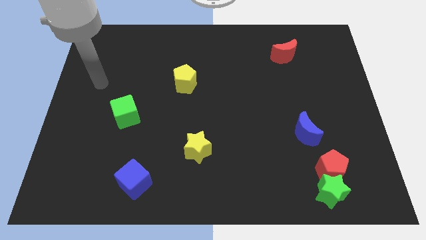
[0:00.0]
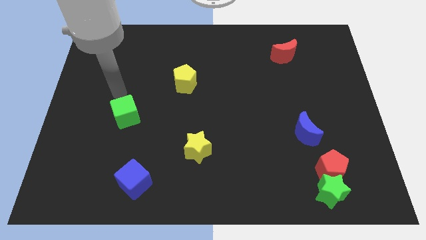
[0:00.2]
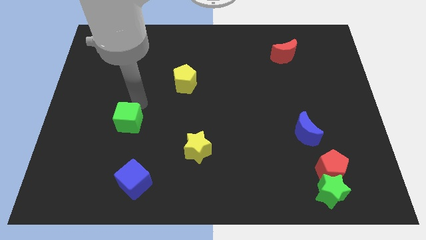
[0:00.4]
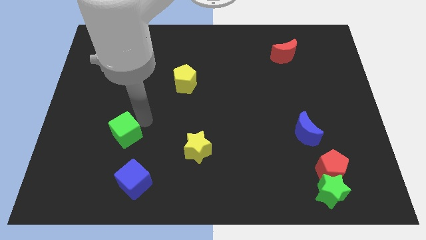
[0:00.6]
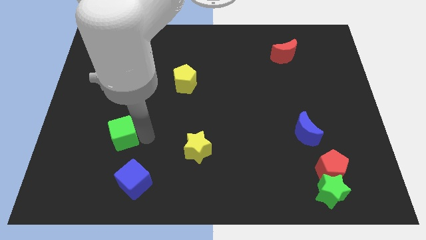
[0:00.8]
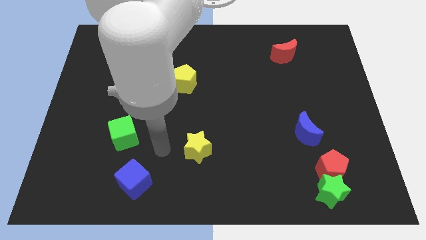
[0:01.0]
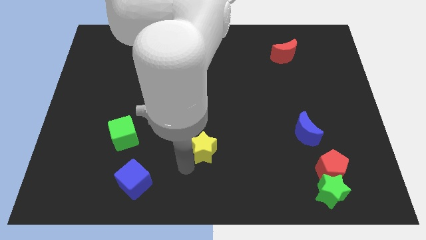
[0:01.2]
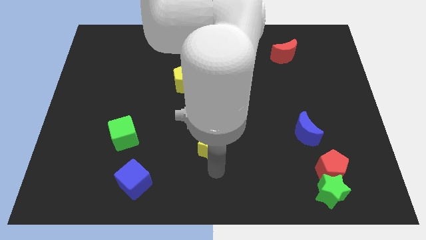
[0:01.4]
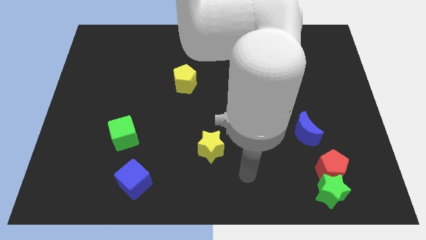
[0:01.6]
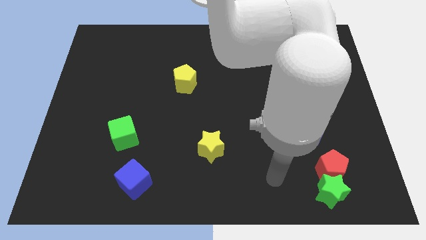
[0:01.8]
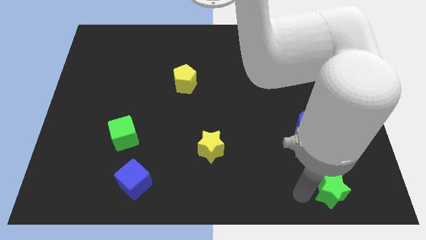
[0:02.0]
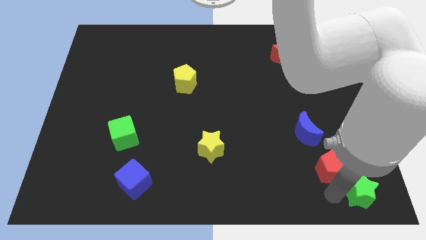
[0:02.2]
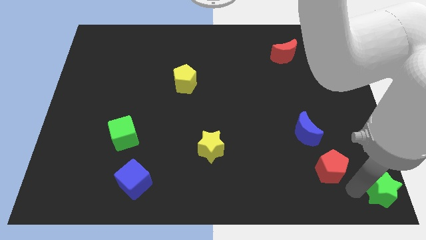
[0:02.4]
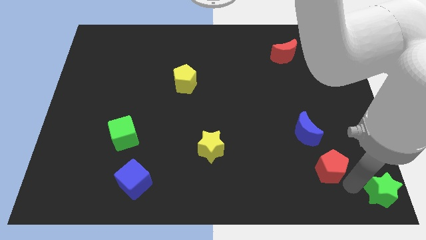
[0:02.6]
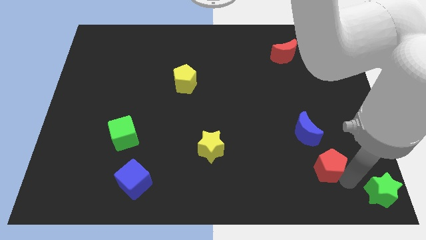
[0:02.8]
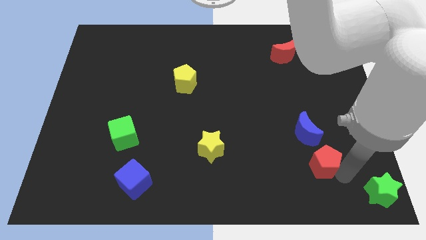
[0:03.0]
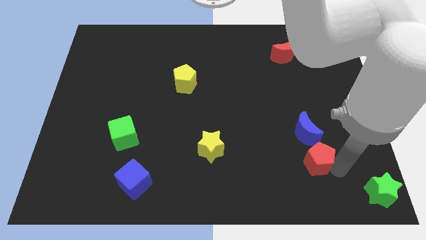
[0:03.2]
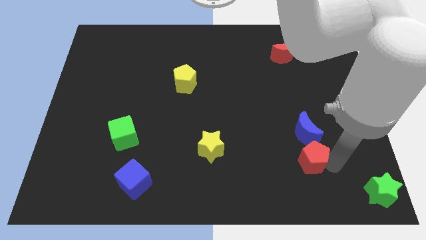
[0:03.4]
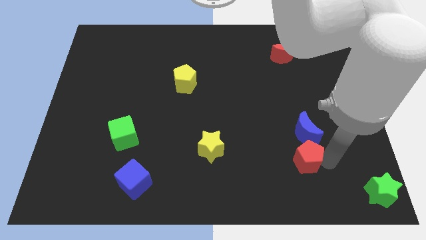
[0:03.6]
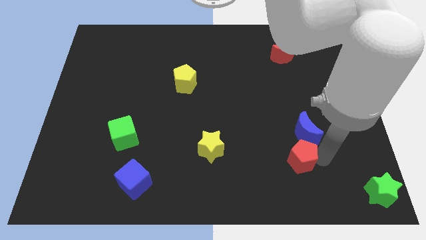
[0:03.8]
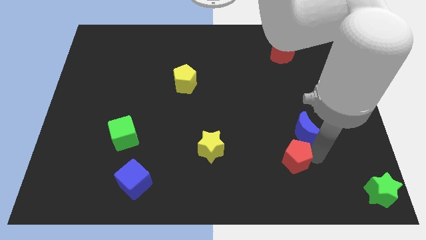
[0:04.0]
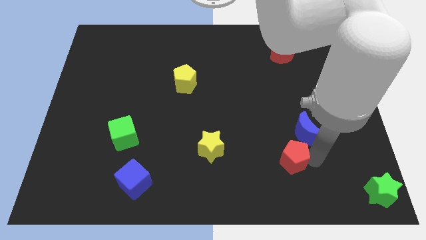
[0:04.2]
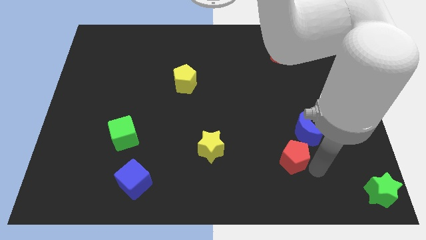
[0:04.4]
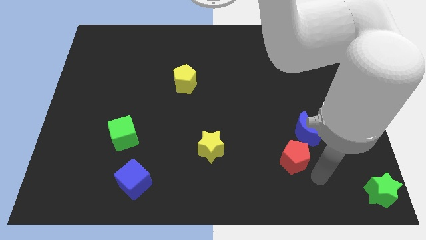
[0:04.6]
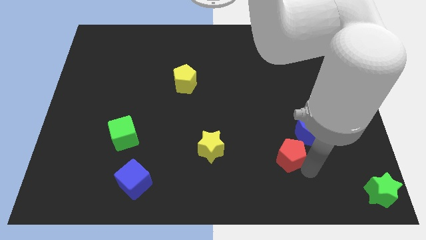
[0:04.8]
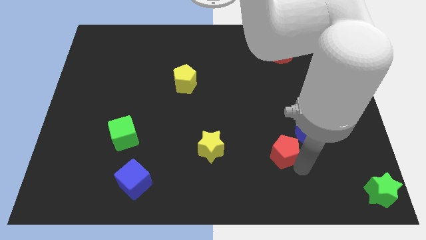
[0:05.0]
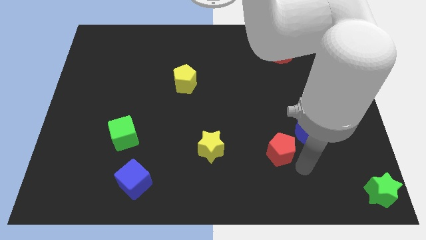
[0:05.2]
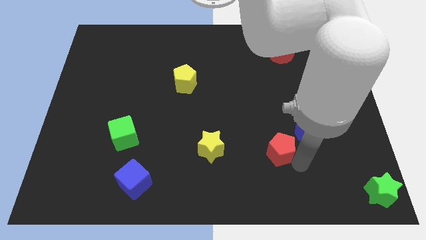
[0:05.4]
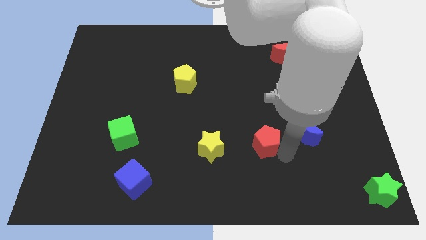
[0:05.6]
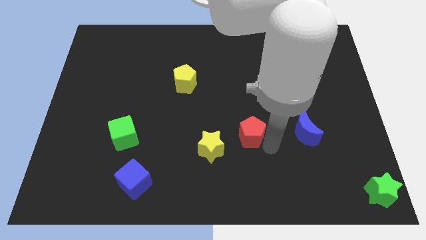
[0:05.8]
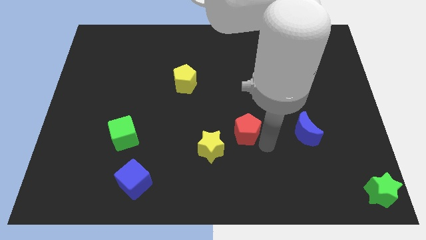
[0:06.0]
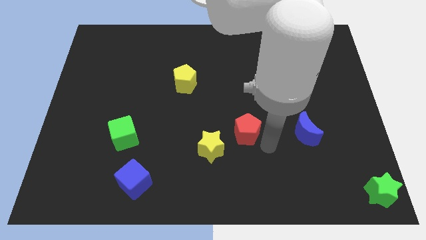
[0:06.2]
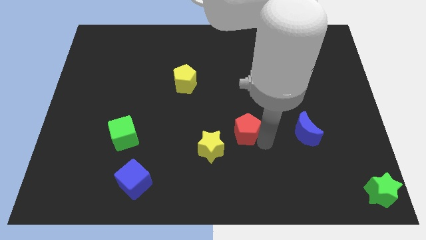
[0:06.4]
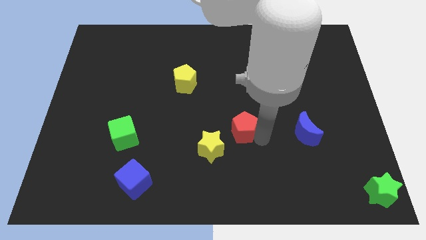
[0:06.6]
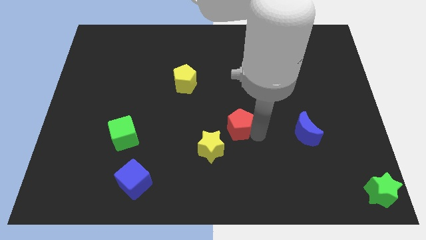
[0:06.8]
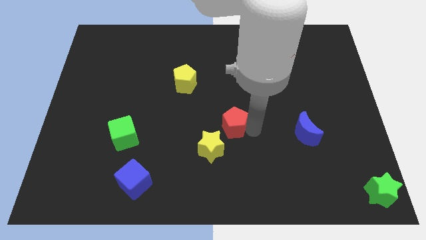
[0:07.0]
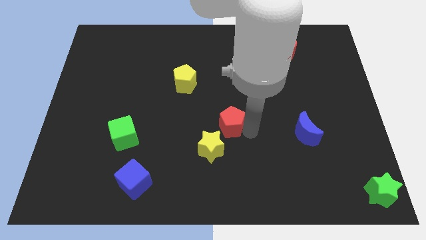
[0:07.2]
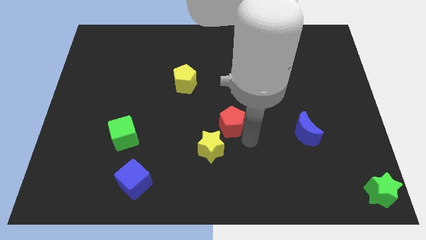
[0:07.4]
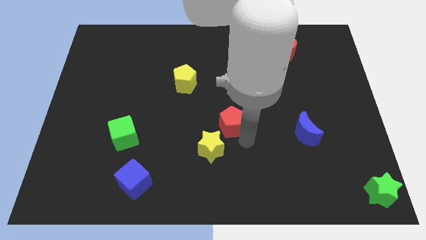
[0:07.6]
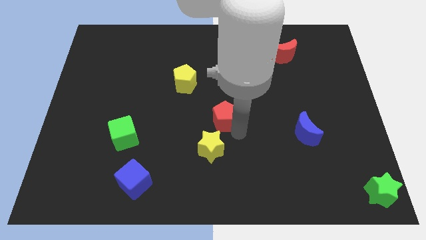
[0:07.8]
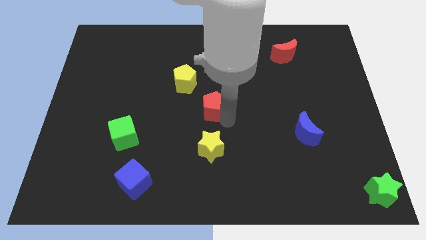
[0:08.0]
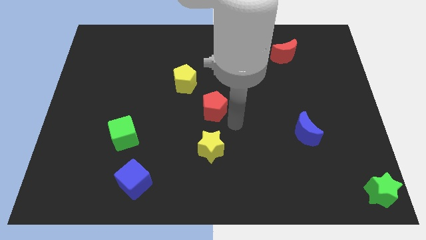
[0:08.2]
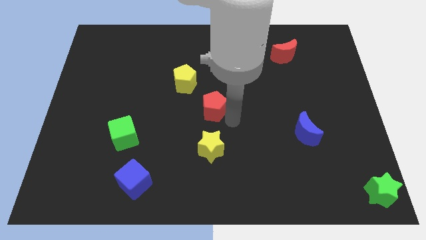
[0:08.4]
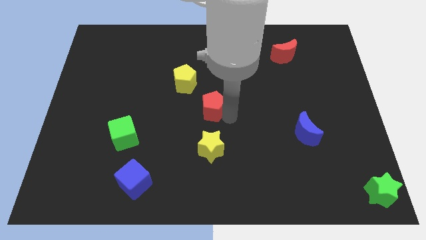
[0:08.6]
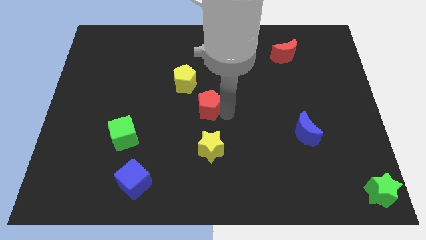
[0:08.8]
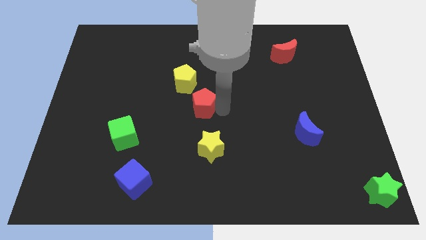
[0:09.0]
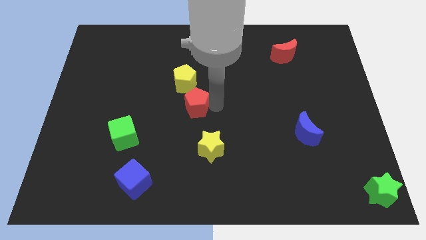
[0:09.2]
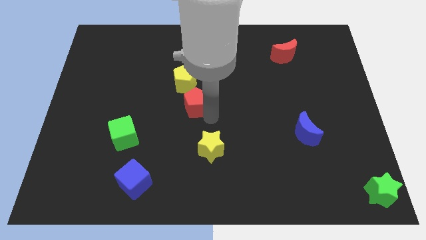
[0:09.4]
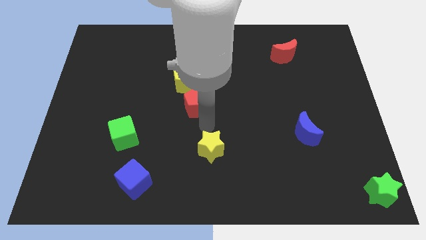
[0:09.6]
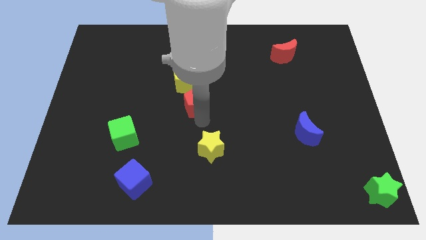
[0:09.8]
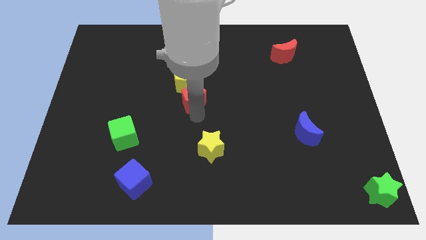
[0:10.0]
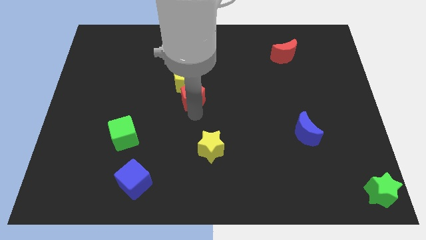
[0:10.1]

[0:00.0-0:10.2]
push the red pentagon next to the yellow pentagon

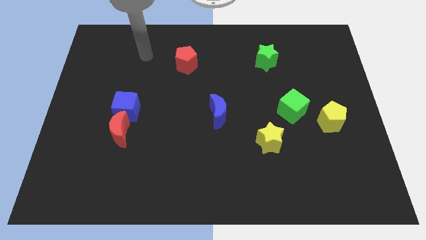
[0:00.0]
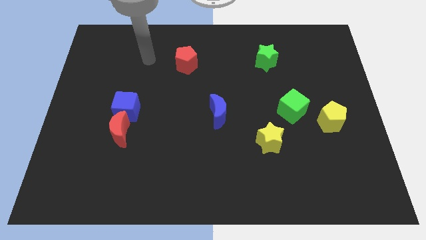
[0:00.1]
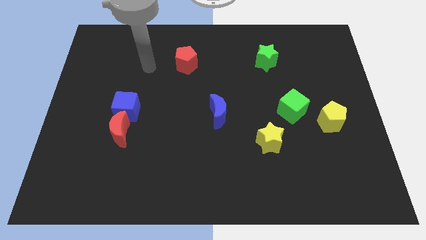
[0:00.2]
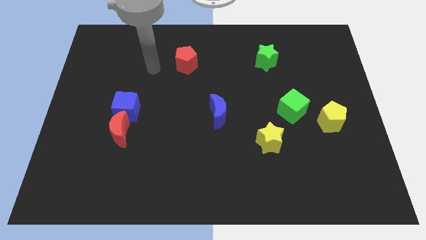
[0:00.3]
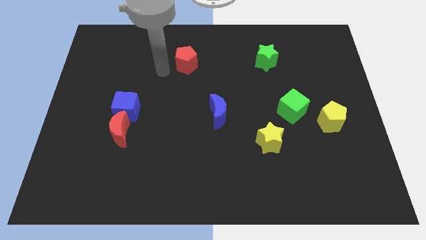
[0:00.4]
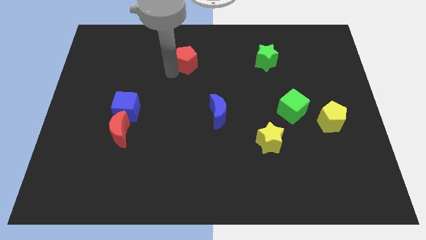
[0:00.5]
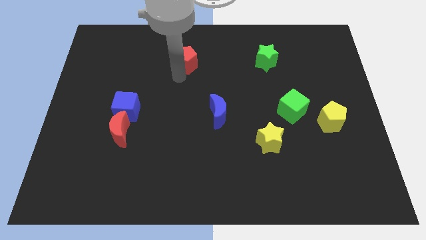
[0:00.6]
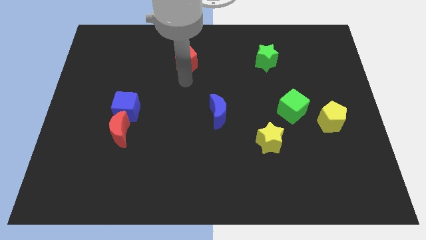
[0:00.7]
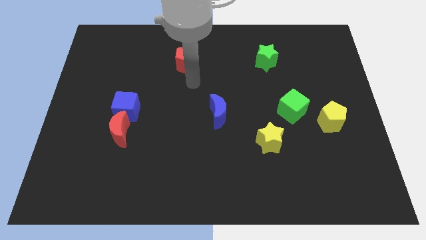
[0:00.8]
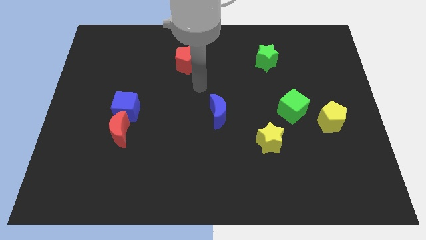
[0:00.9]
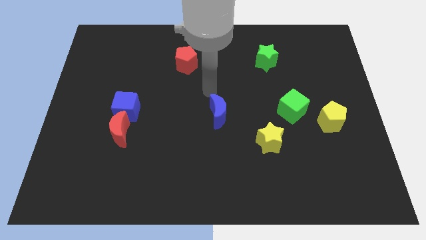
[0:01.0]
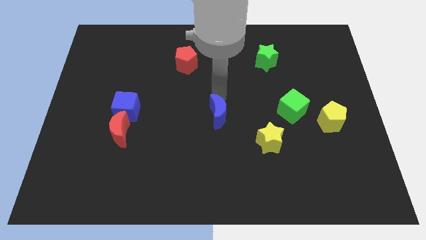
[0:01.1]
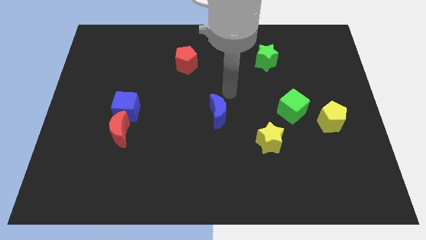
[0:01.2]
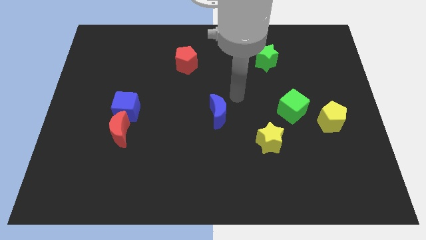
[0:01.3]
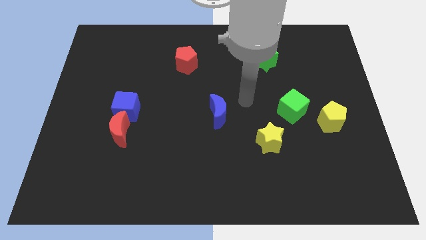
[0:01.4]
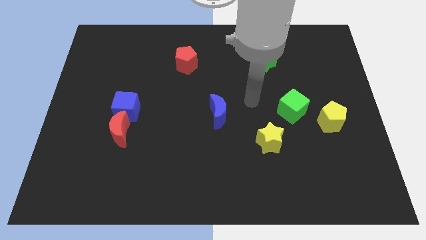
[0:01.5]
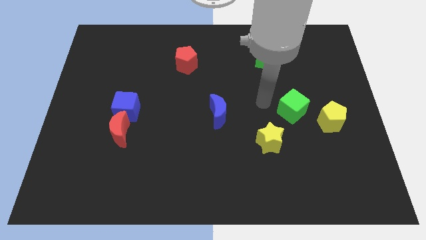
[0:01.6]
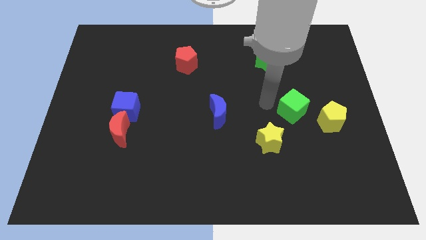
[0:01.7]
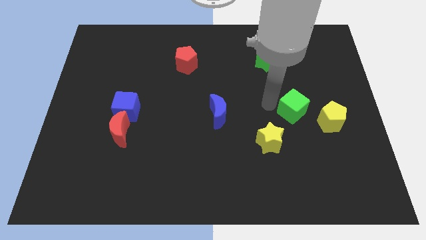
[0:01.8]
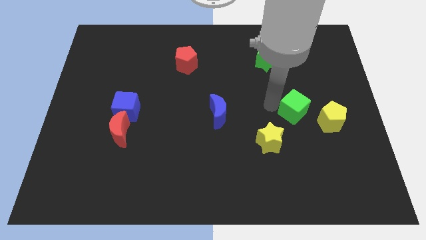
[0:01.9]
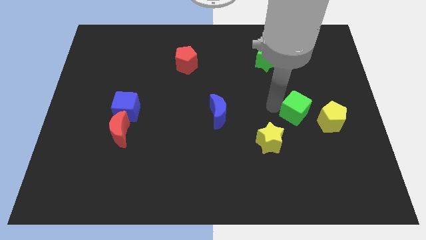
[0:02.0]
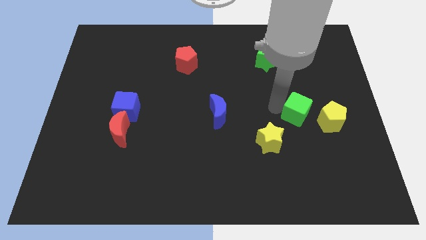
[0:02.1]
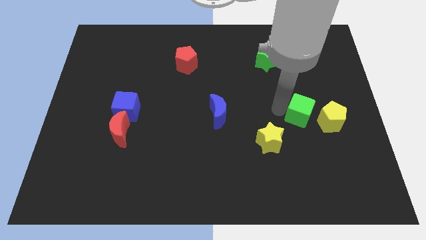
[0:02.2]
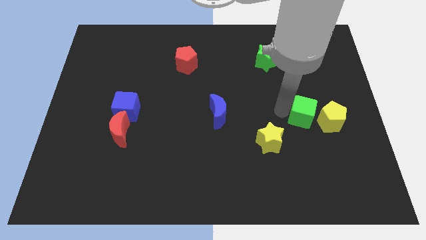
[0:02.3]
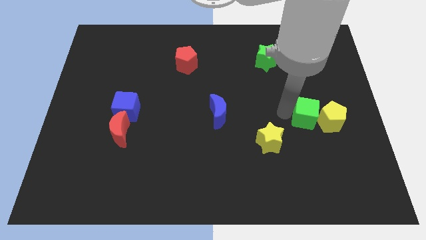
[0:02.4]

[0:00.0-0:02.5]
push the green cube towards the yellow pentagon

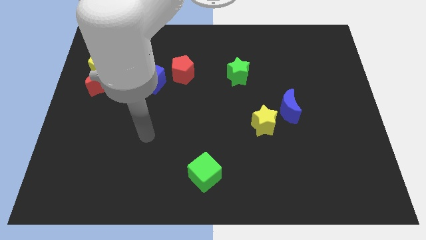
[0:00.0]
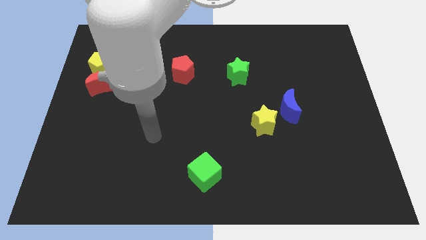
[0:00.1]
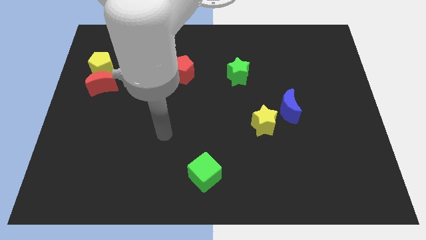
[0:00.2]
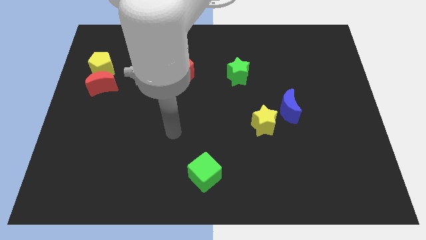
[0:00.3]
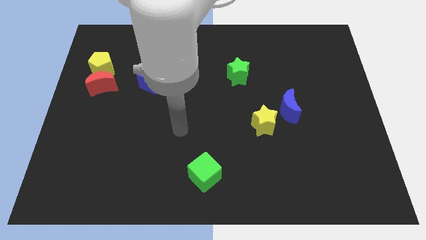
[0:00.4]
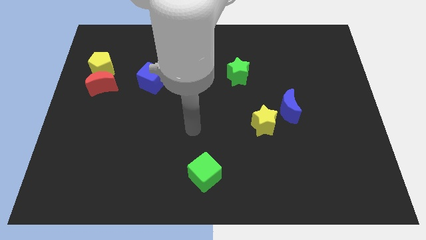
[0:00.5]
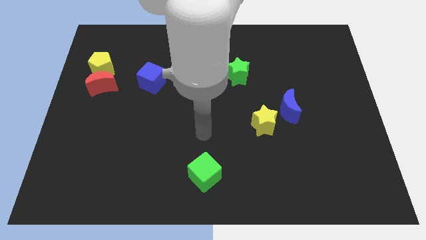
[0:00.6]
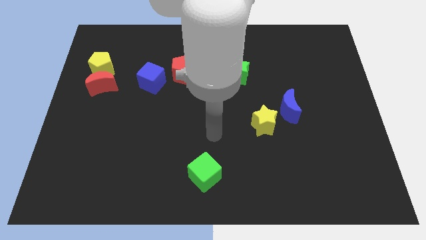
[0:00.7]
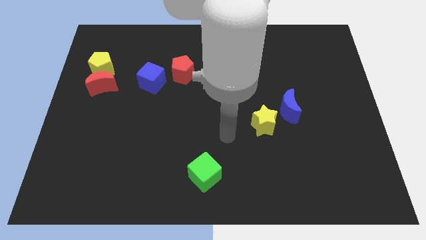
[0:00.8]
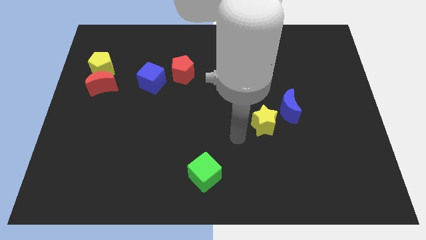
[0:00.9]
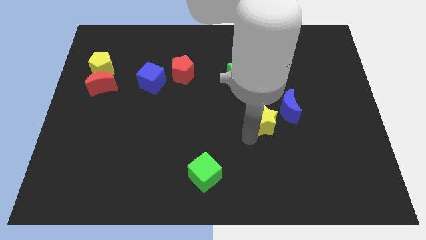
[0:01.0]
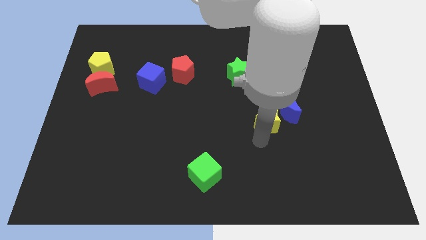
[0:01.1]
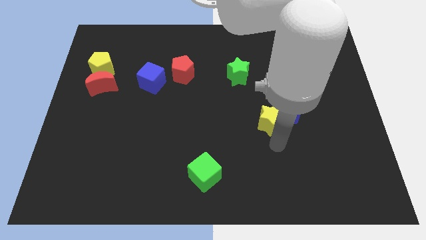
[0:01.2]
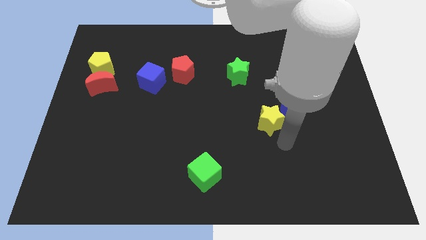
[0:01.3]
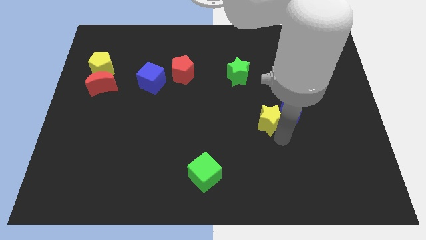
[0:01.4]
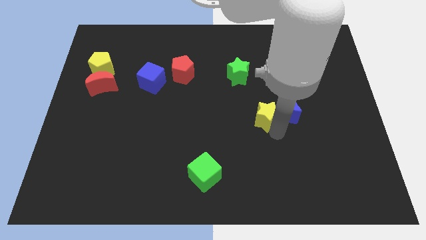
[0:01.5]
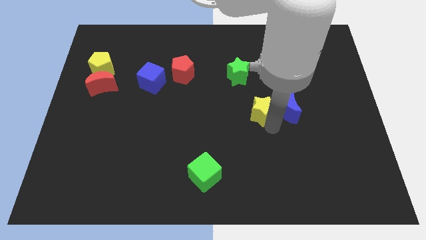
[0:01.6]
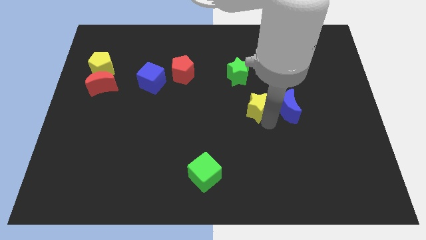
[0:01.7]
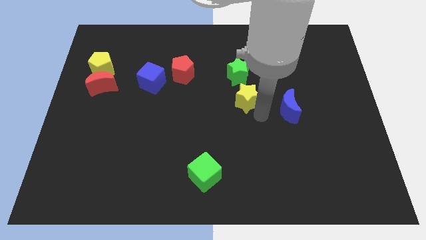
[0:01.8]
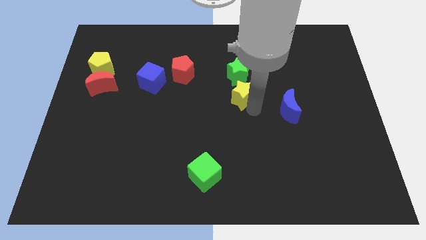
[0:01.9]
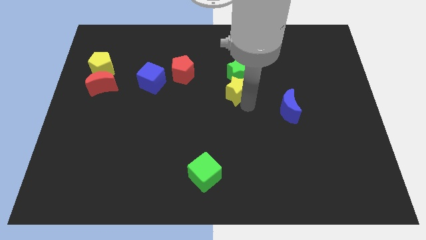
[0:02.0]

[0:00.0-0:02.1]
put the yellow star next to the green star
